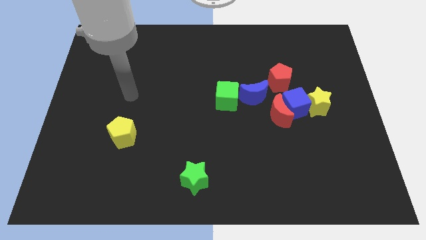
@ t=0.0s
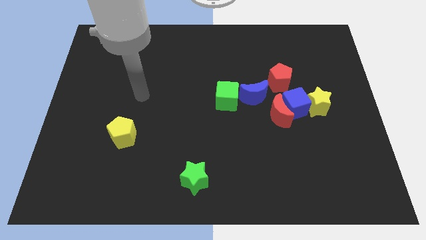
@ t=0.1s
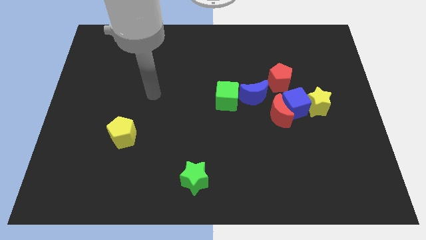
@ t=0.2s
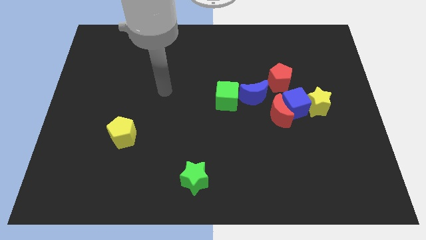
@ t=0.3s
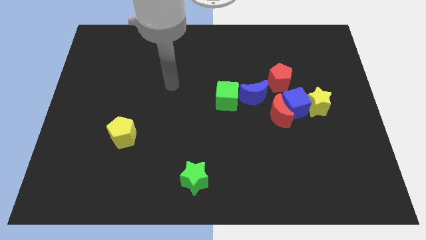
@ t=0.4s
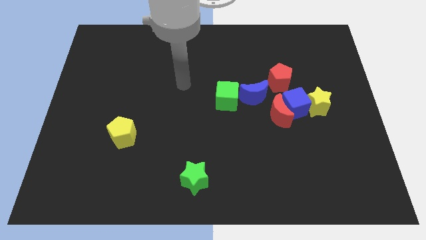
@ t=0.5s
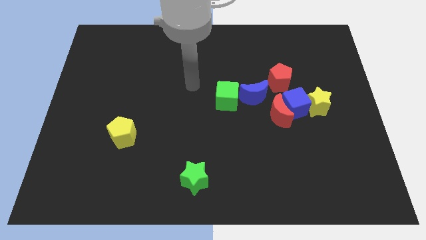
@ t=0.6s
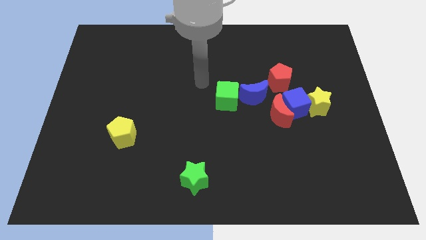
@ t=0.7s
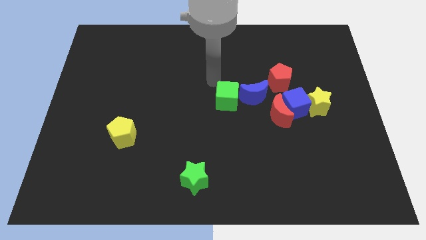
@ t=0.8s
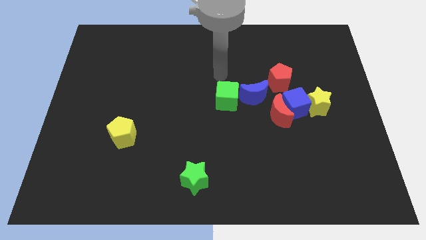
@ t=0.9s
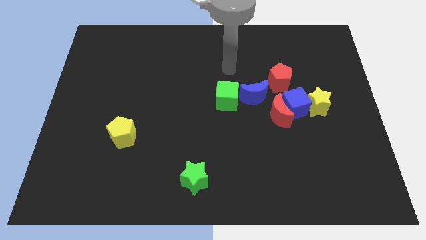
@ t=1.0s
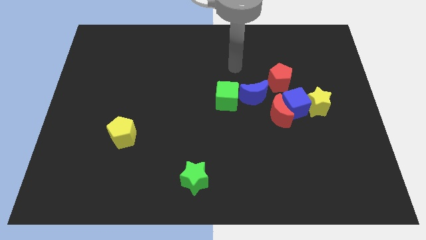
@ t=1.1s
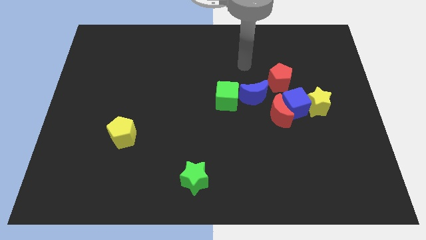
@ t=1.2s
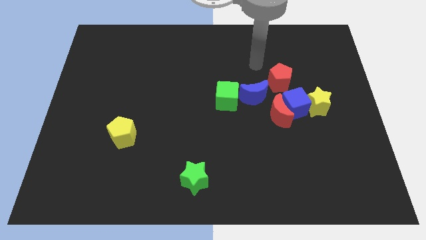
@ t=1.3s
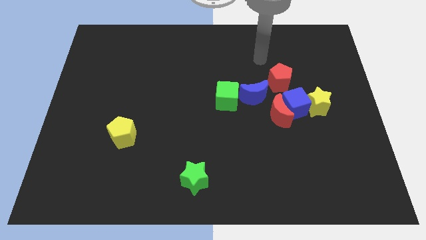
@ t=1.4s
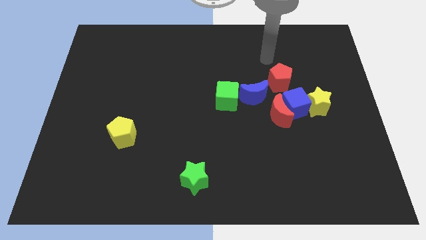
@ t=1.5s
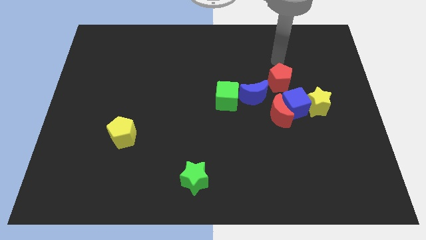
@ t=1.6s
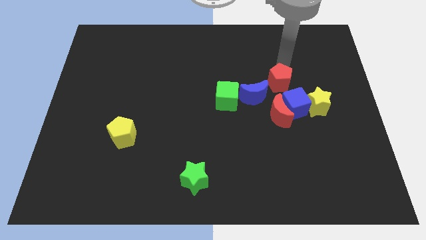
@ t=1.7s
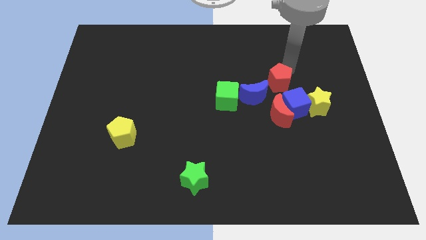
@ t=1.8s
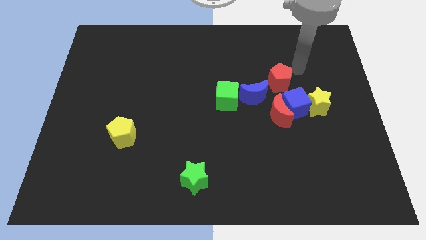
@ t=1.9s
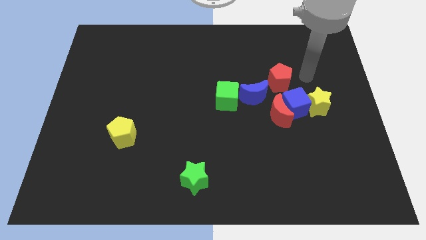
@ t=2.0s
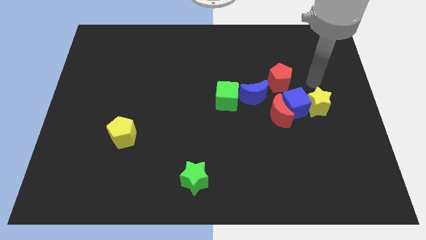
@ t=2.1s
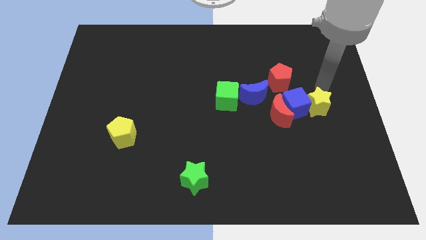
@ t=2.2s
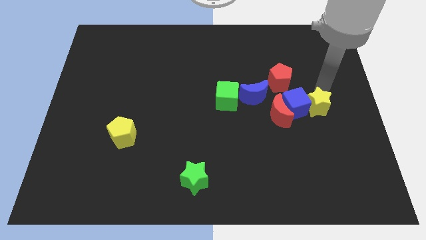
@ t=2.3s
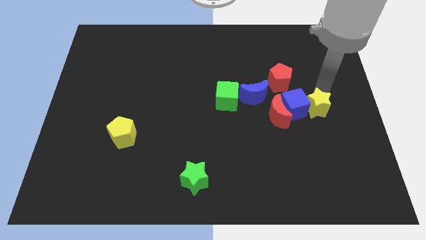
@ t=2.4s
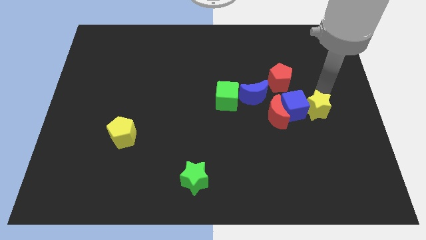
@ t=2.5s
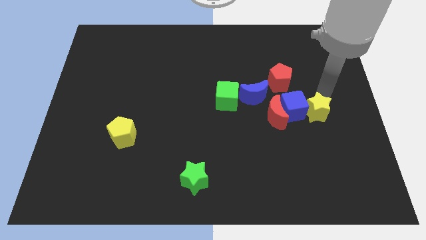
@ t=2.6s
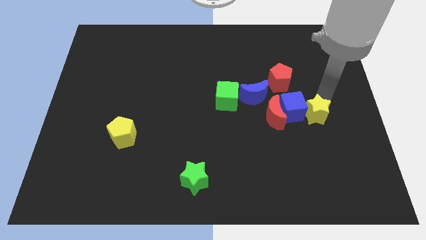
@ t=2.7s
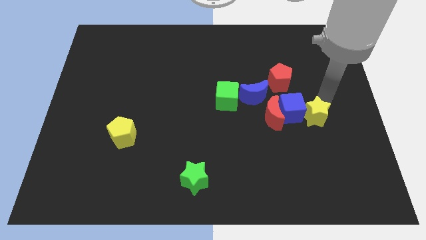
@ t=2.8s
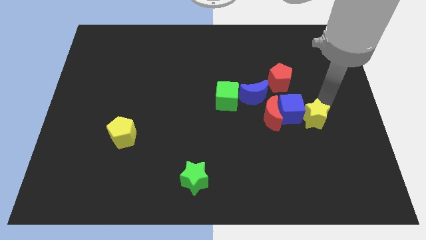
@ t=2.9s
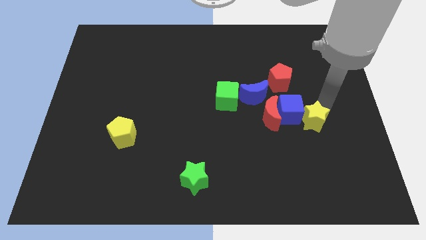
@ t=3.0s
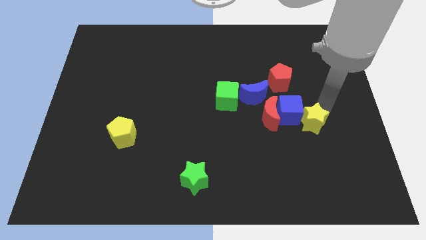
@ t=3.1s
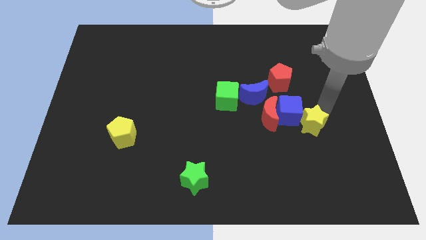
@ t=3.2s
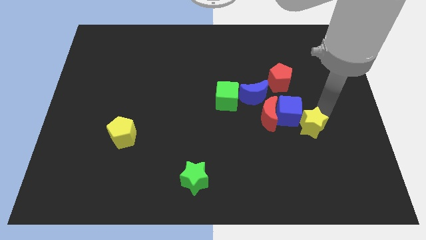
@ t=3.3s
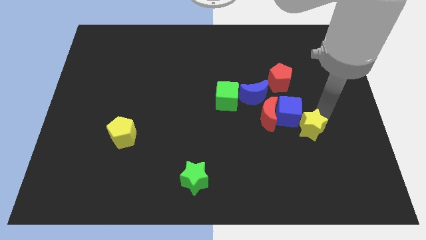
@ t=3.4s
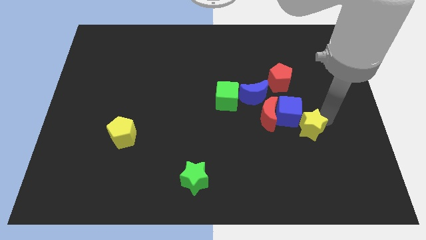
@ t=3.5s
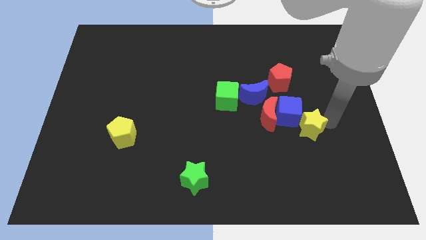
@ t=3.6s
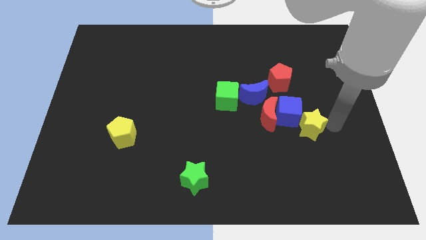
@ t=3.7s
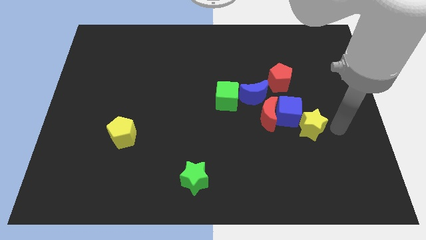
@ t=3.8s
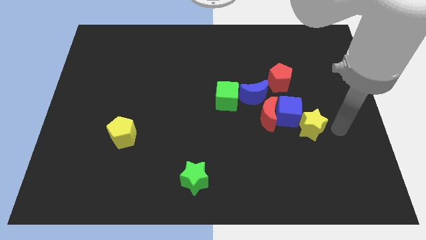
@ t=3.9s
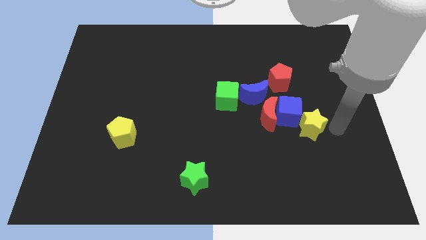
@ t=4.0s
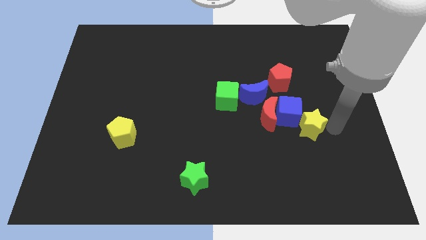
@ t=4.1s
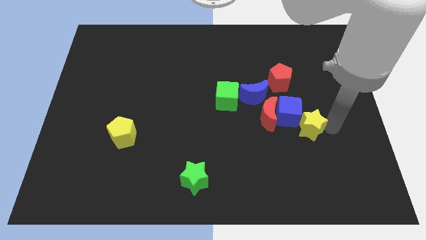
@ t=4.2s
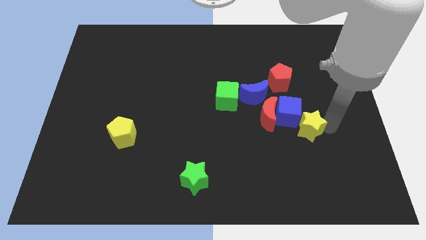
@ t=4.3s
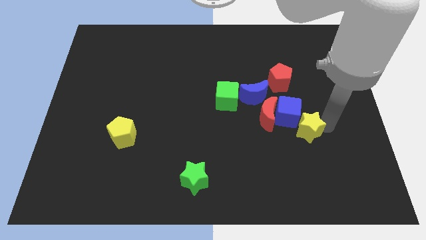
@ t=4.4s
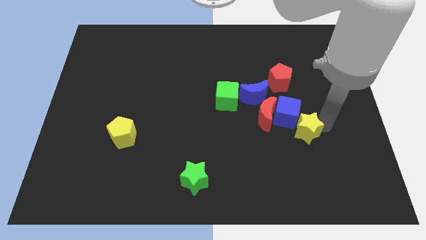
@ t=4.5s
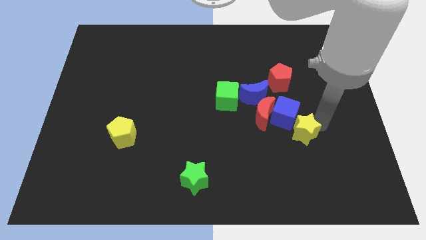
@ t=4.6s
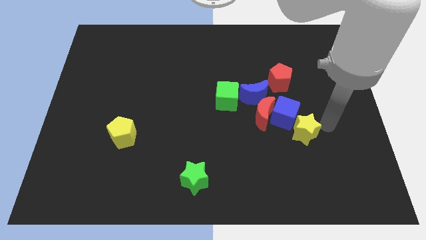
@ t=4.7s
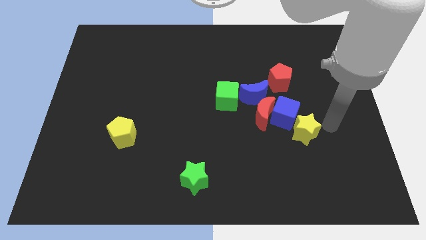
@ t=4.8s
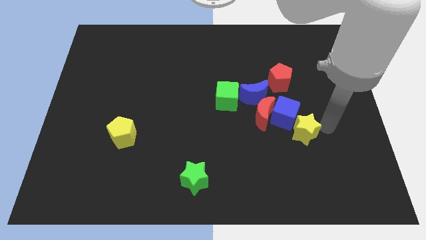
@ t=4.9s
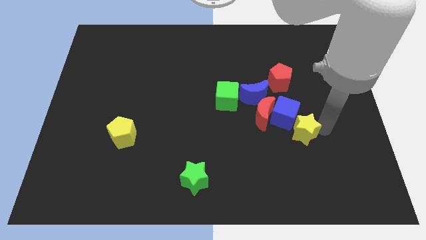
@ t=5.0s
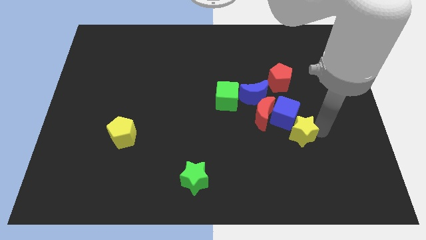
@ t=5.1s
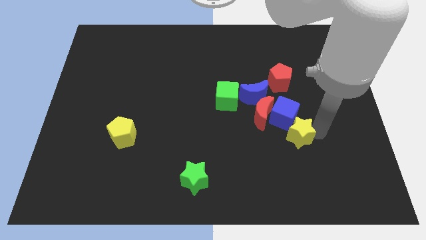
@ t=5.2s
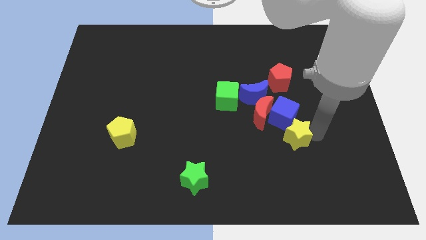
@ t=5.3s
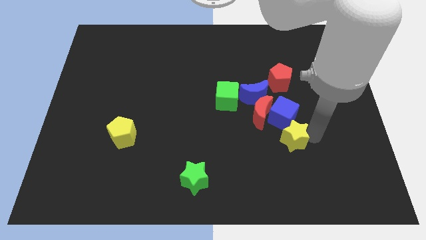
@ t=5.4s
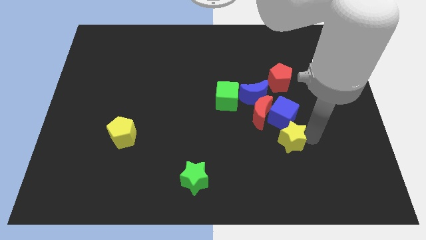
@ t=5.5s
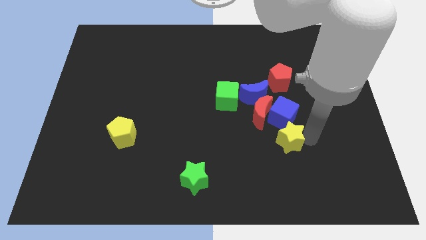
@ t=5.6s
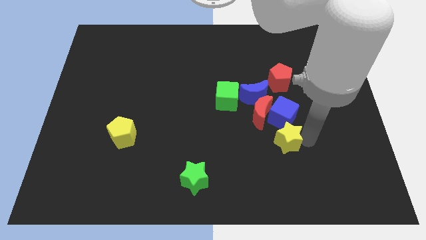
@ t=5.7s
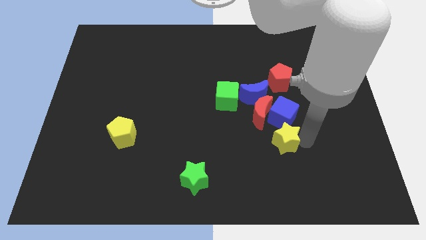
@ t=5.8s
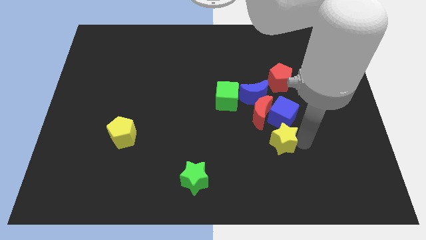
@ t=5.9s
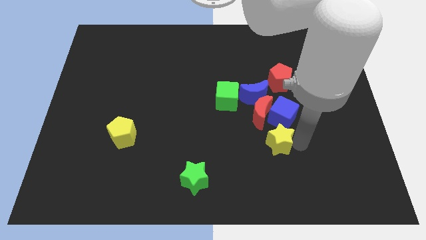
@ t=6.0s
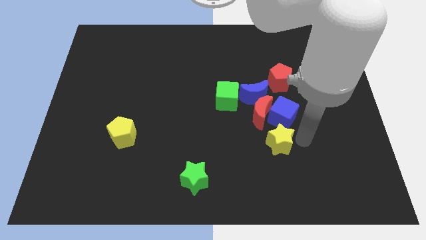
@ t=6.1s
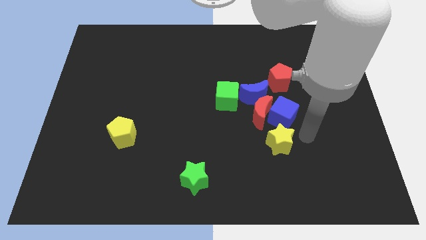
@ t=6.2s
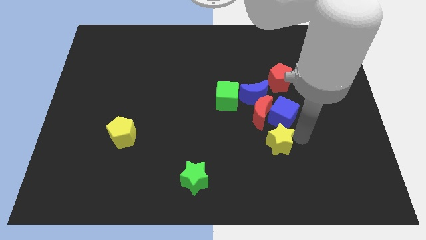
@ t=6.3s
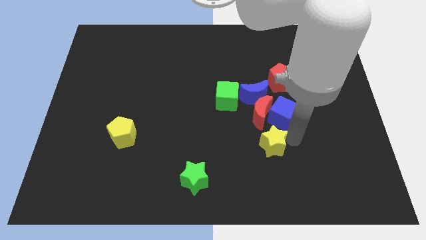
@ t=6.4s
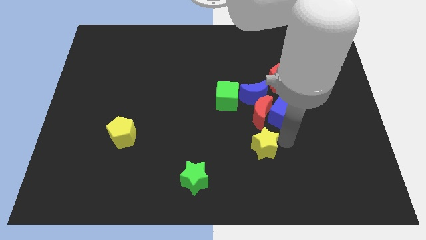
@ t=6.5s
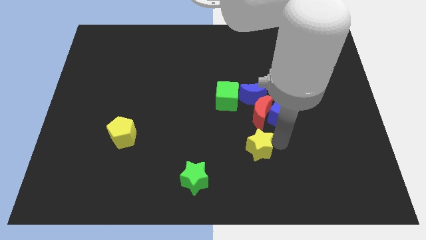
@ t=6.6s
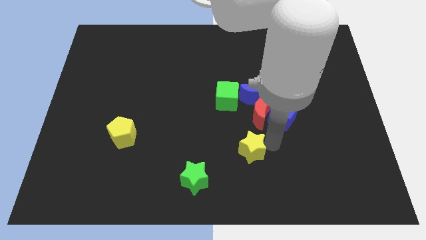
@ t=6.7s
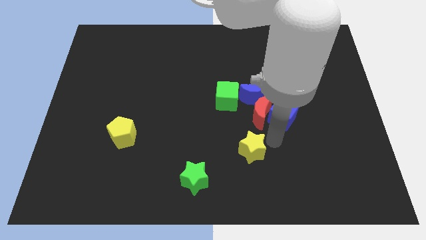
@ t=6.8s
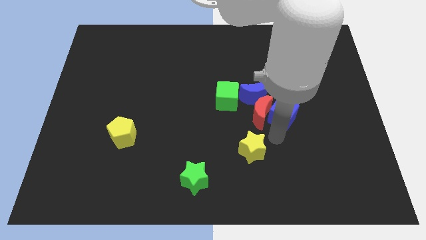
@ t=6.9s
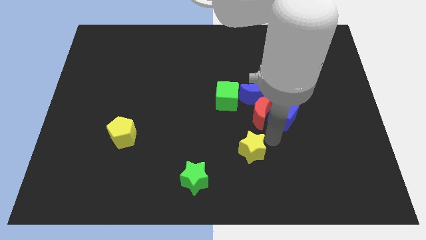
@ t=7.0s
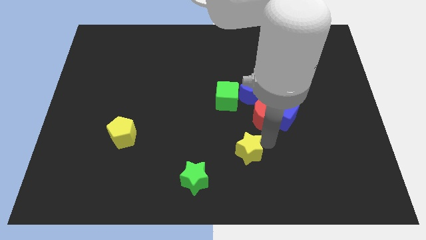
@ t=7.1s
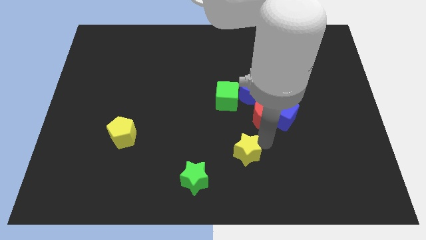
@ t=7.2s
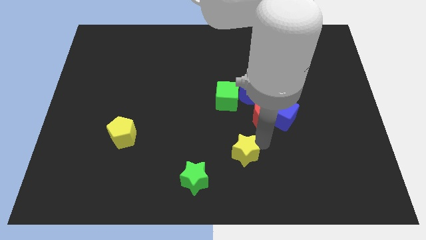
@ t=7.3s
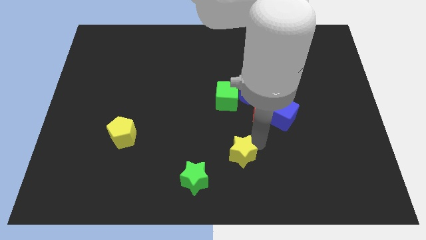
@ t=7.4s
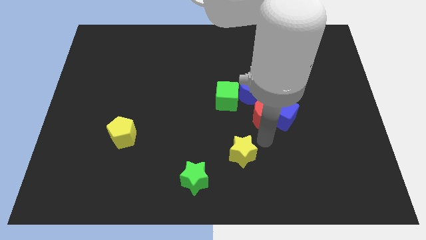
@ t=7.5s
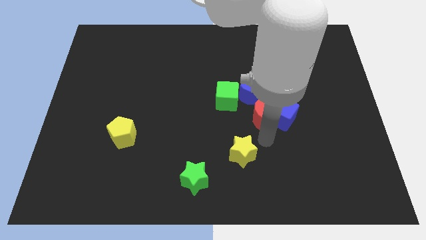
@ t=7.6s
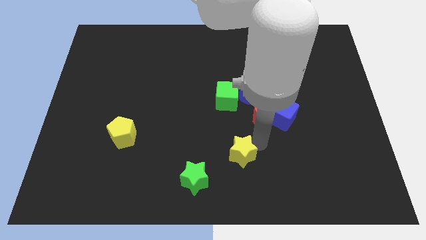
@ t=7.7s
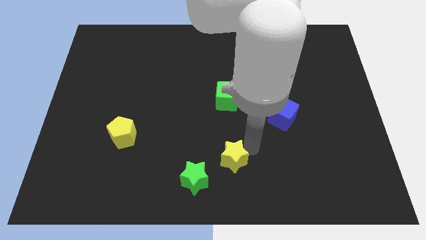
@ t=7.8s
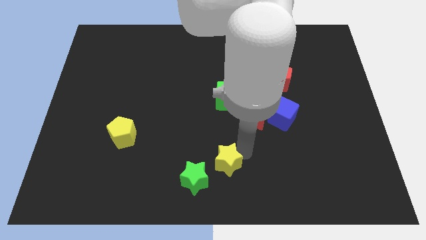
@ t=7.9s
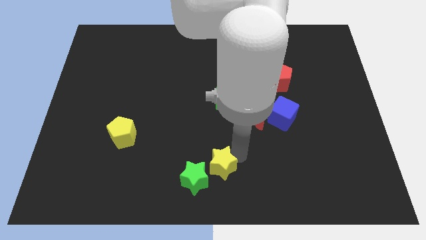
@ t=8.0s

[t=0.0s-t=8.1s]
move the yellow star to the green star
